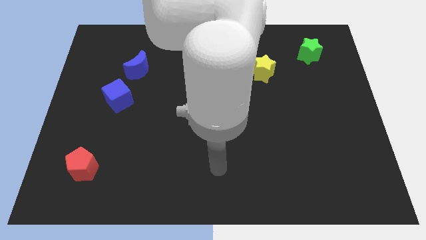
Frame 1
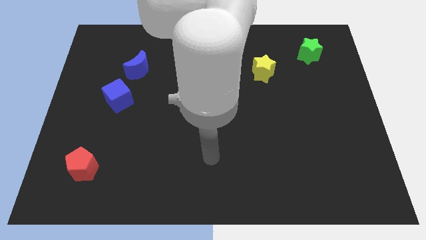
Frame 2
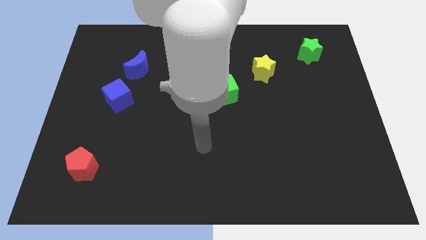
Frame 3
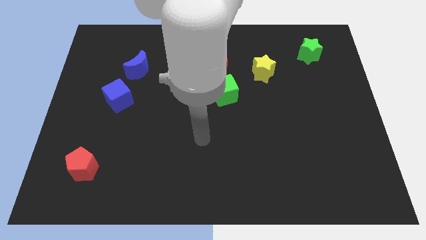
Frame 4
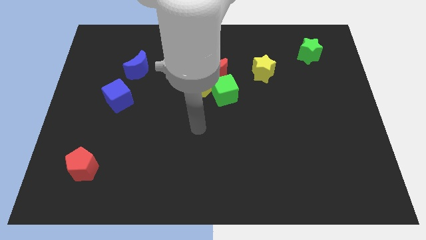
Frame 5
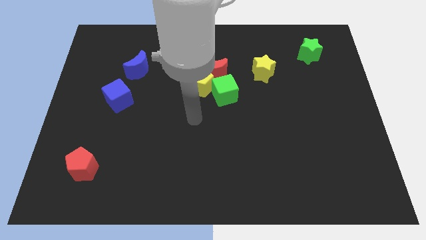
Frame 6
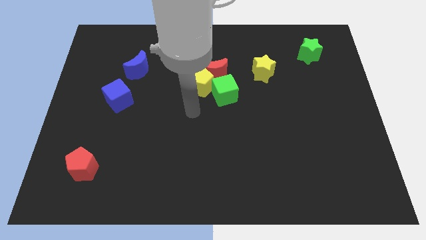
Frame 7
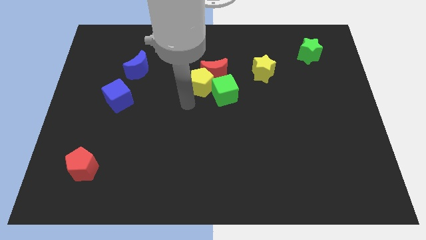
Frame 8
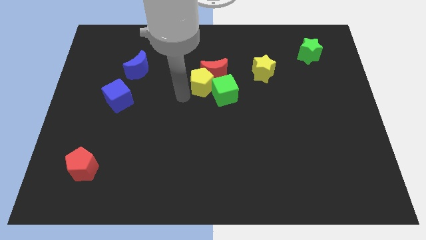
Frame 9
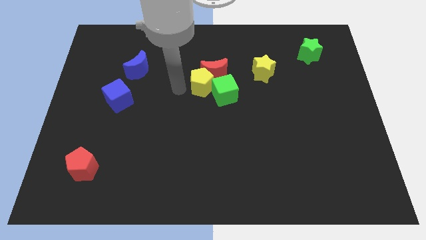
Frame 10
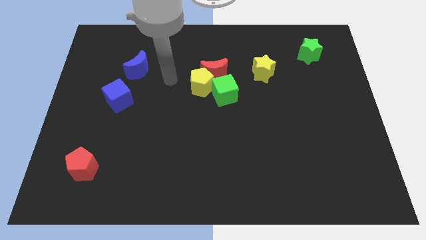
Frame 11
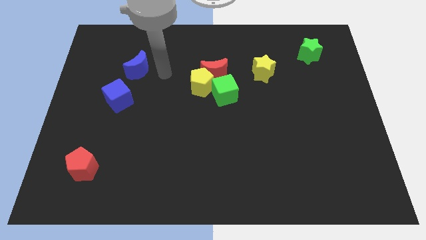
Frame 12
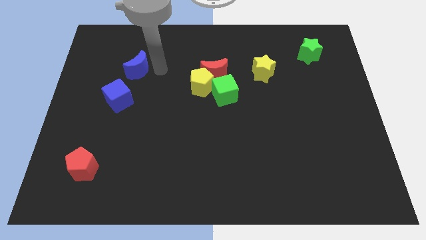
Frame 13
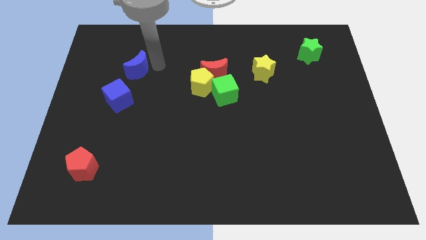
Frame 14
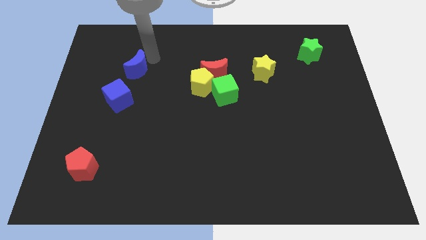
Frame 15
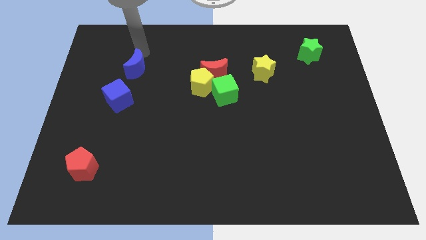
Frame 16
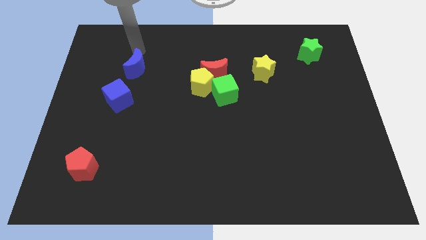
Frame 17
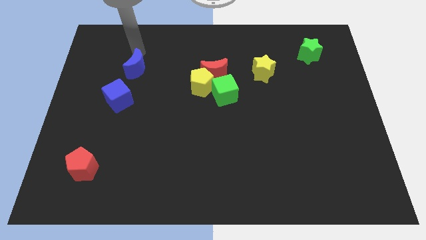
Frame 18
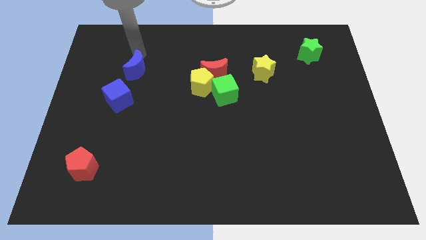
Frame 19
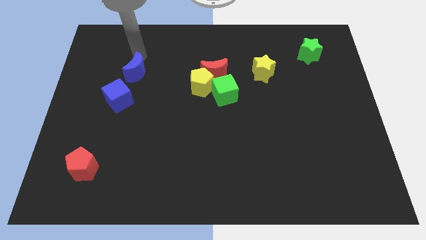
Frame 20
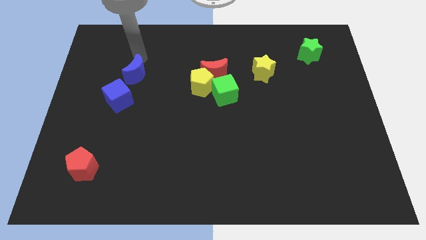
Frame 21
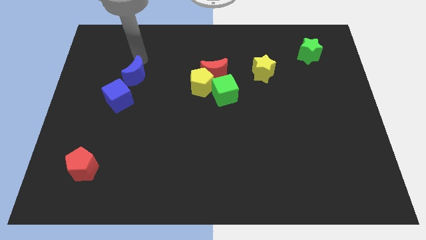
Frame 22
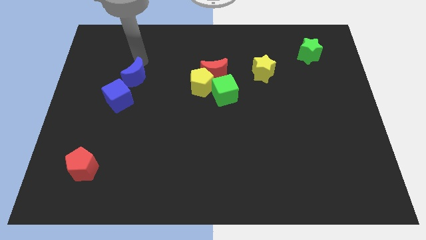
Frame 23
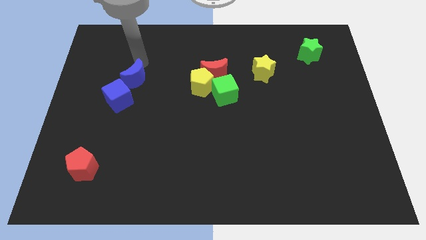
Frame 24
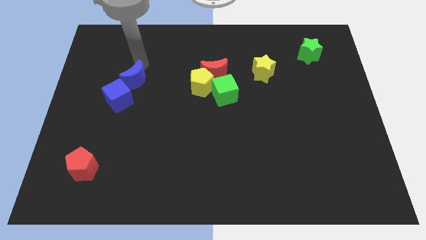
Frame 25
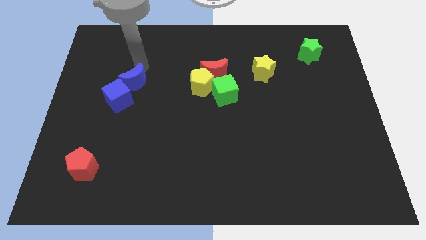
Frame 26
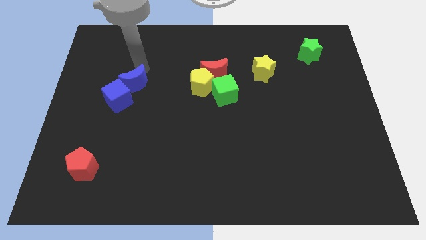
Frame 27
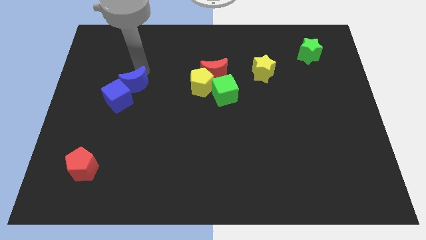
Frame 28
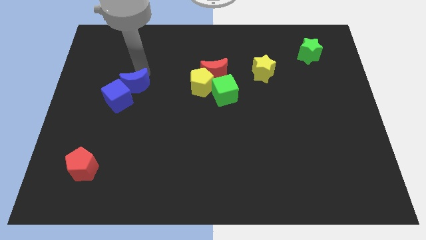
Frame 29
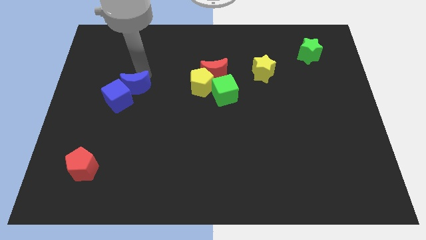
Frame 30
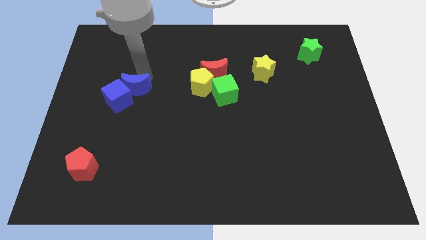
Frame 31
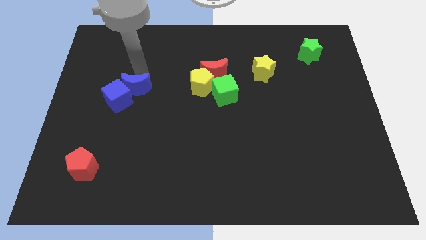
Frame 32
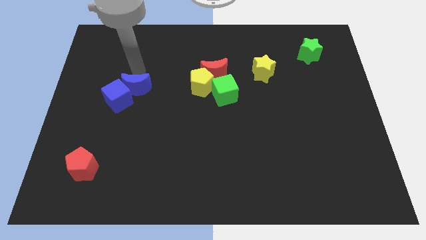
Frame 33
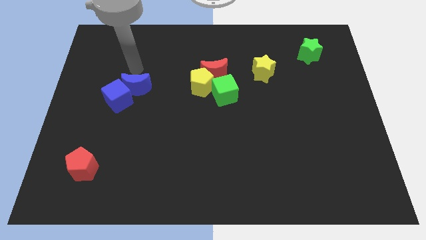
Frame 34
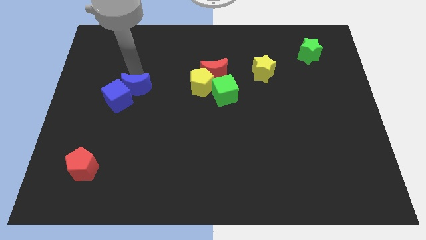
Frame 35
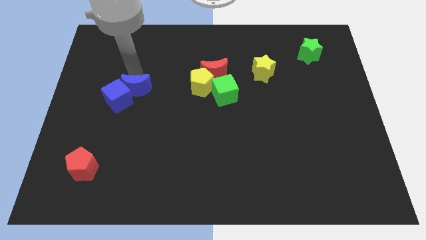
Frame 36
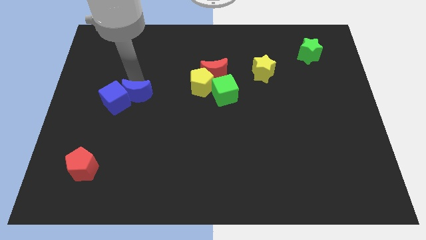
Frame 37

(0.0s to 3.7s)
slightly move the blue moon down

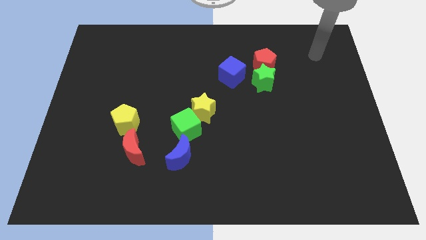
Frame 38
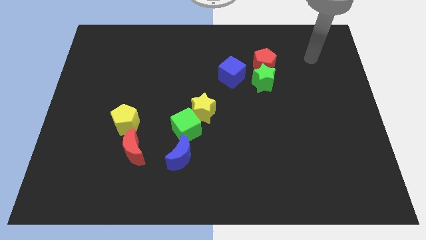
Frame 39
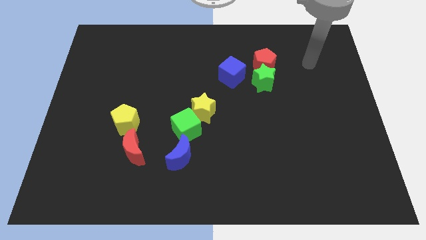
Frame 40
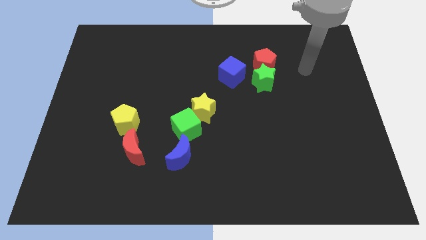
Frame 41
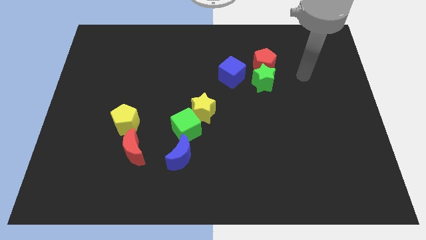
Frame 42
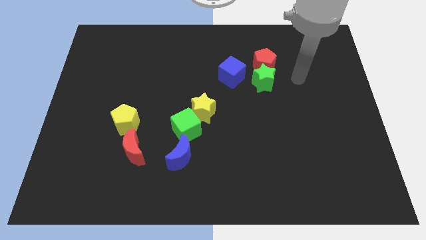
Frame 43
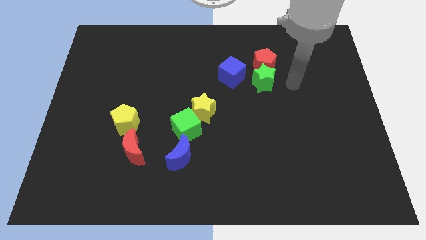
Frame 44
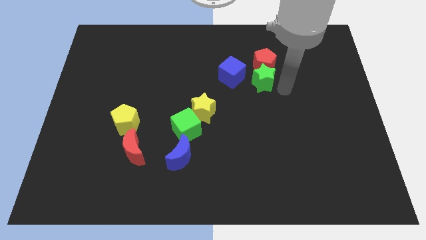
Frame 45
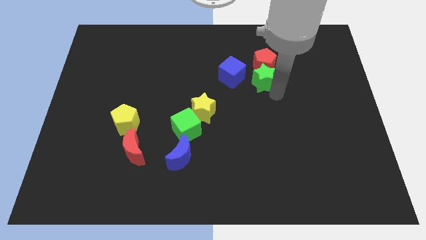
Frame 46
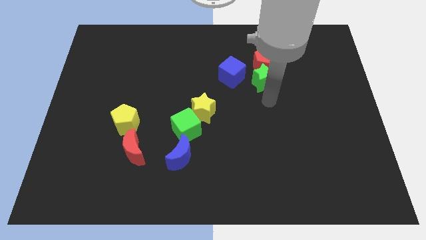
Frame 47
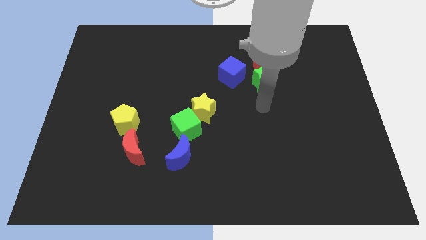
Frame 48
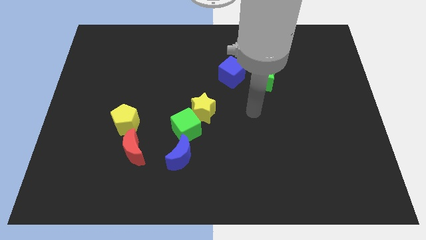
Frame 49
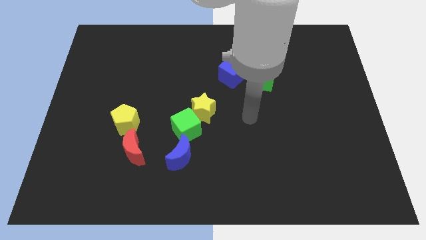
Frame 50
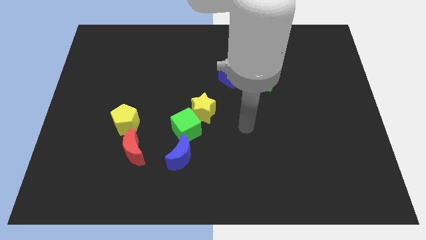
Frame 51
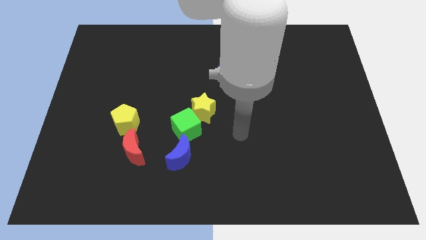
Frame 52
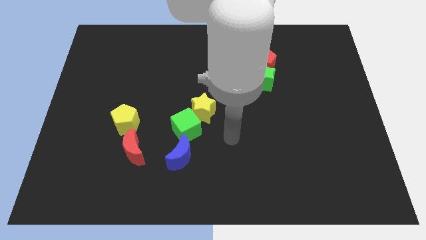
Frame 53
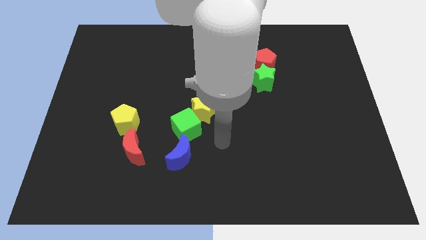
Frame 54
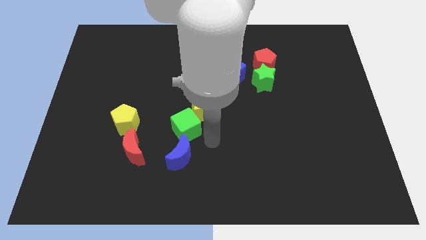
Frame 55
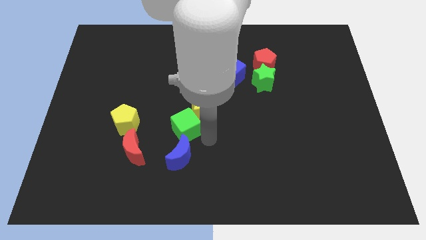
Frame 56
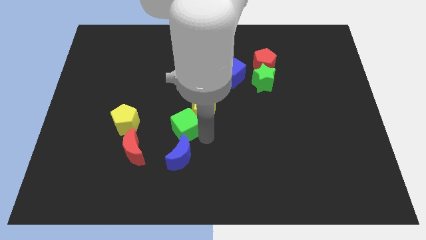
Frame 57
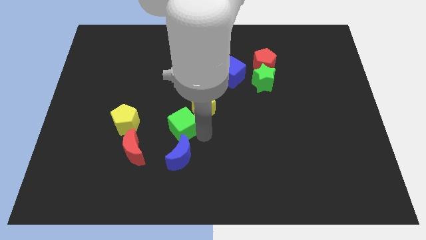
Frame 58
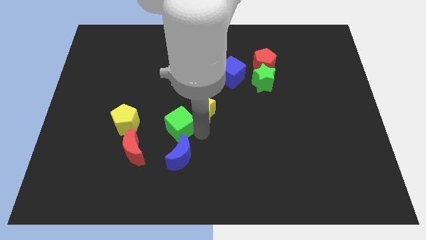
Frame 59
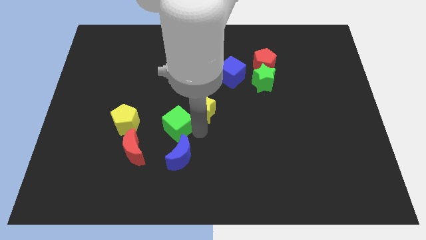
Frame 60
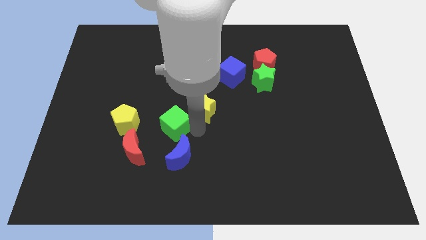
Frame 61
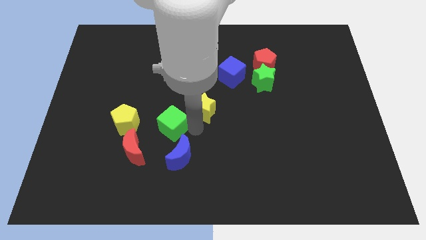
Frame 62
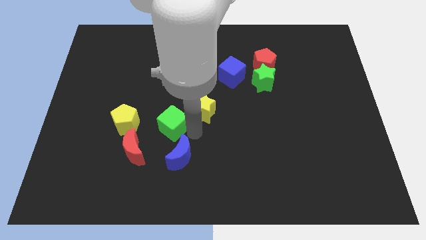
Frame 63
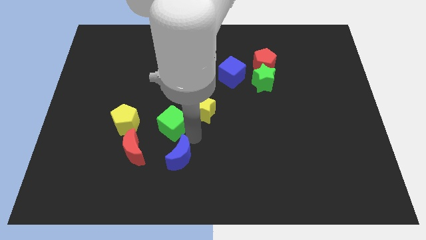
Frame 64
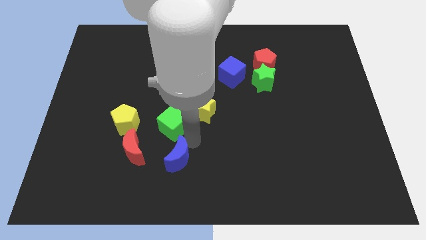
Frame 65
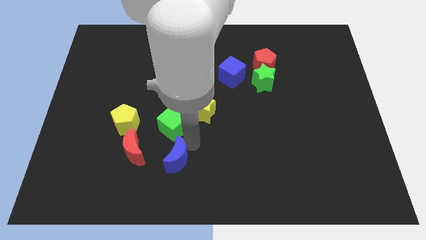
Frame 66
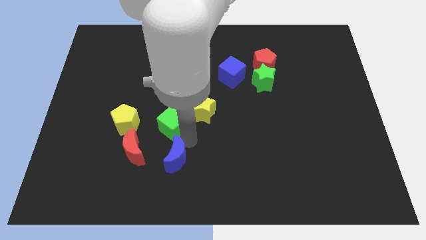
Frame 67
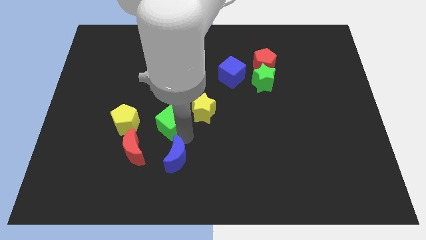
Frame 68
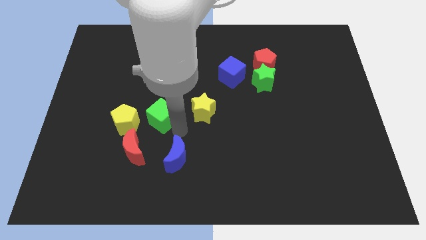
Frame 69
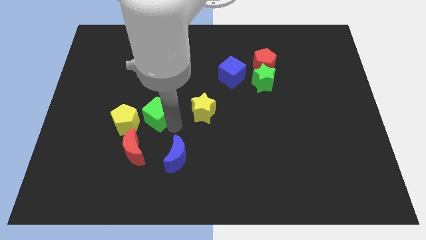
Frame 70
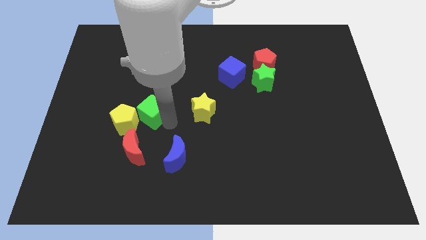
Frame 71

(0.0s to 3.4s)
slightly move the green cube left

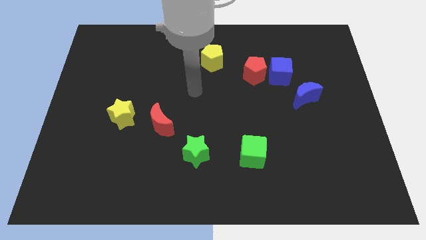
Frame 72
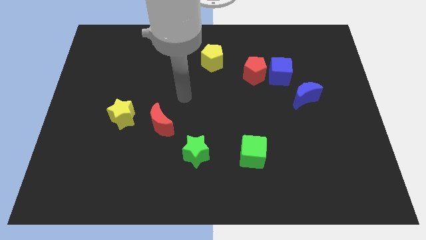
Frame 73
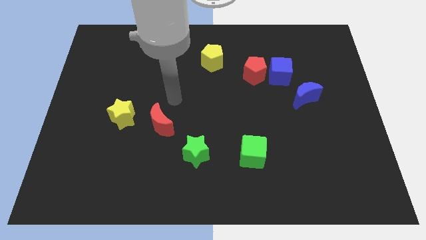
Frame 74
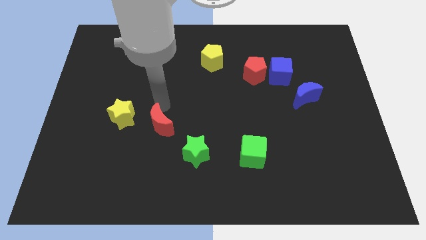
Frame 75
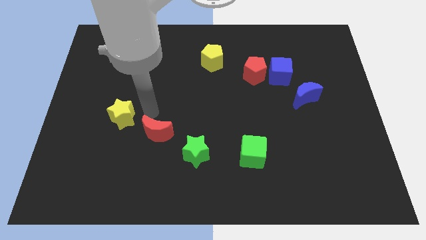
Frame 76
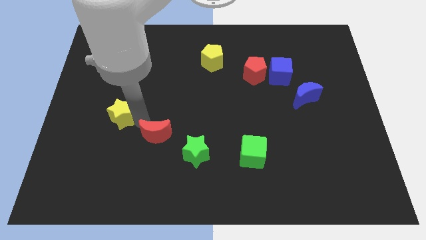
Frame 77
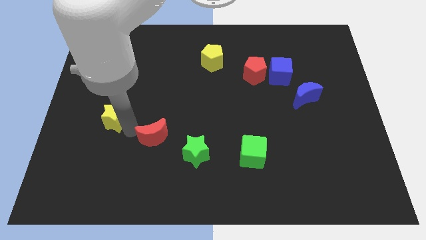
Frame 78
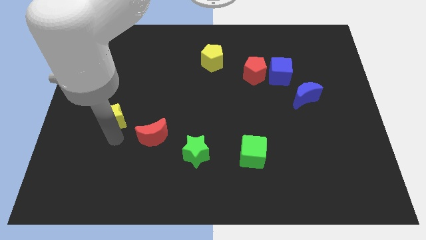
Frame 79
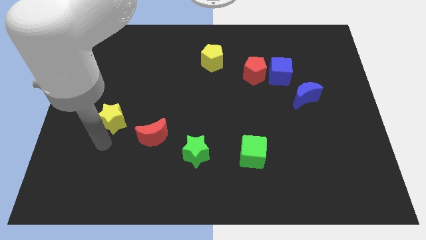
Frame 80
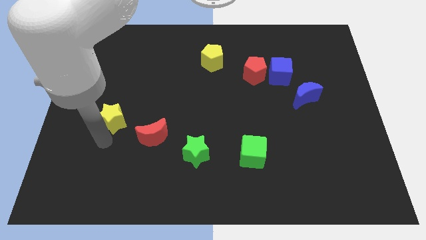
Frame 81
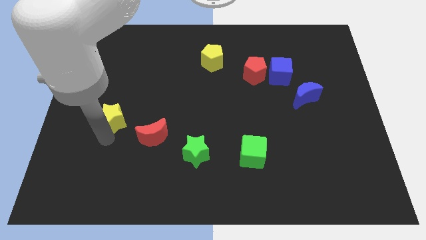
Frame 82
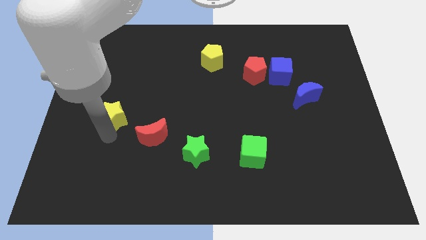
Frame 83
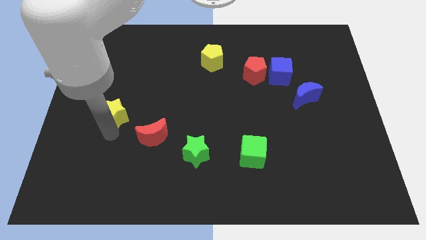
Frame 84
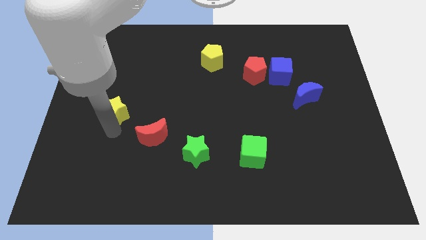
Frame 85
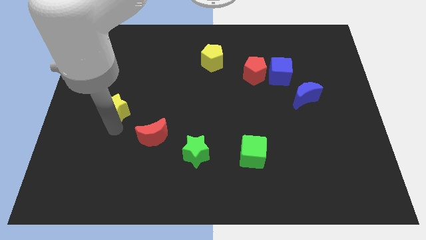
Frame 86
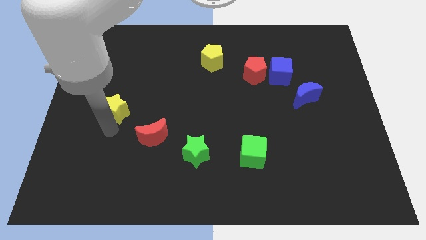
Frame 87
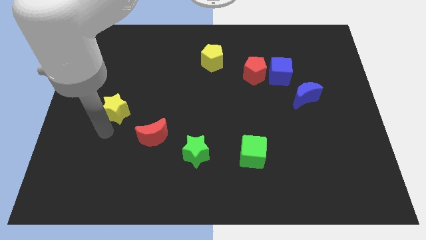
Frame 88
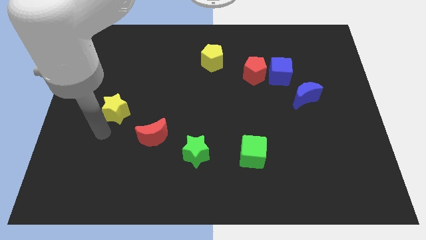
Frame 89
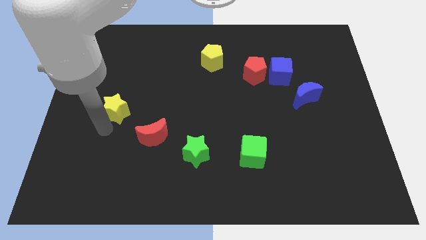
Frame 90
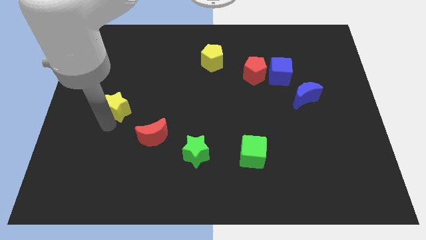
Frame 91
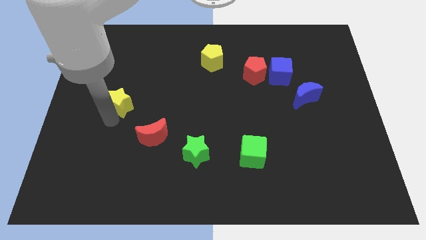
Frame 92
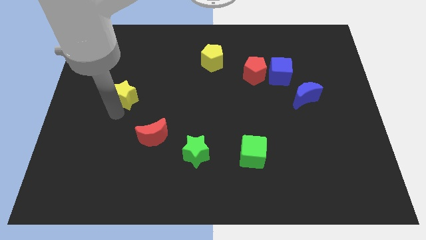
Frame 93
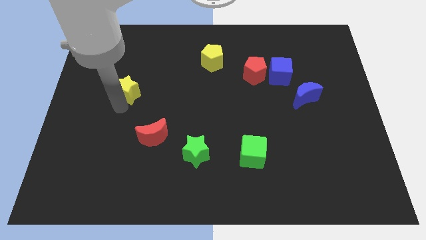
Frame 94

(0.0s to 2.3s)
slightly move the yellow star upwards
